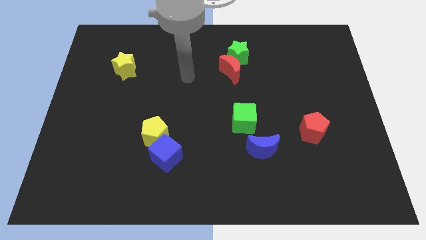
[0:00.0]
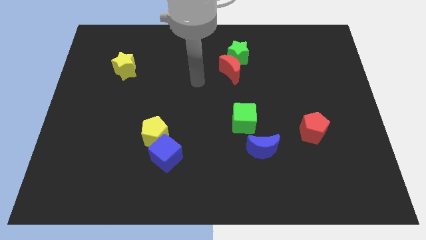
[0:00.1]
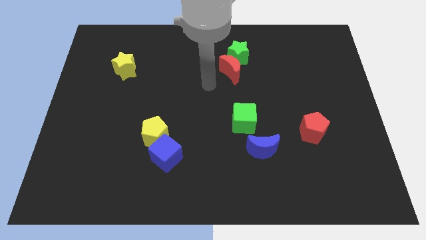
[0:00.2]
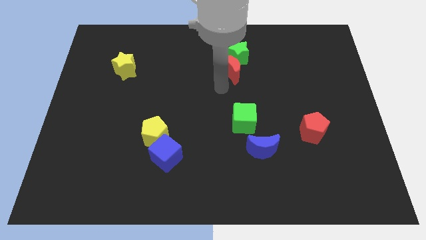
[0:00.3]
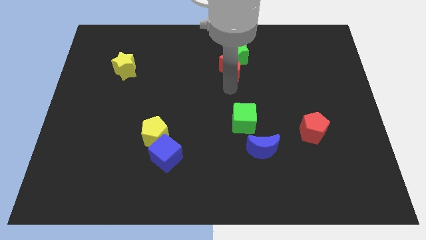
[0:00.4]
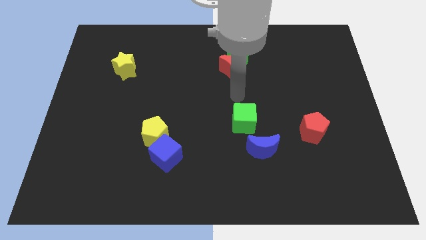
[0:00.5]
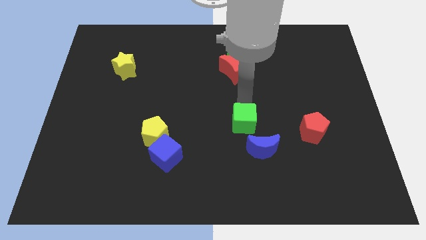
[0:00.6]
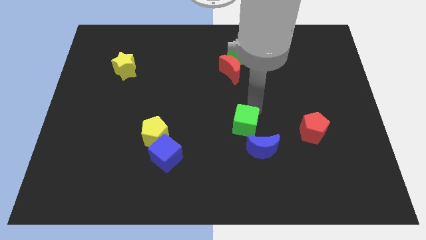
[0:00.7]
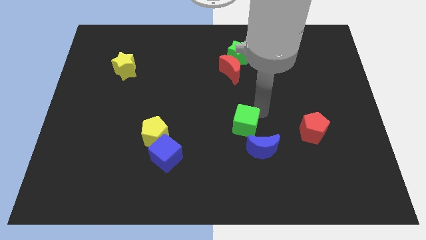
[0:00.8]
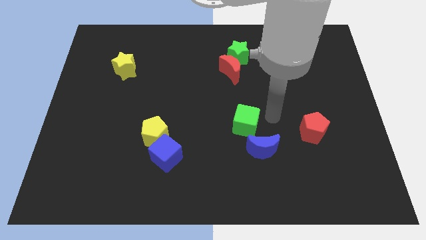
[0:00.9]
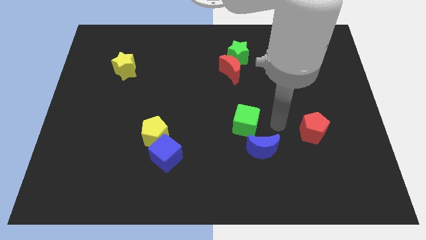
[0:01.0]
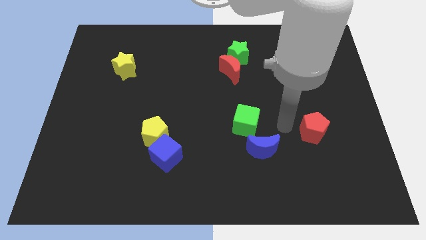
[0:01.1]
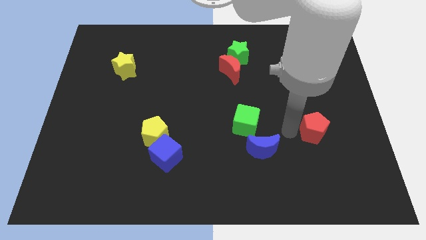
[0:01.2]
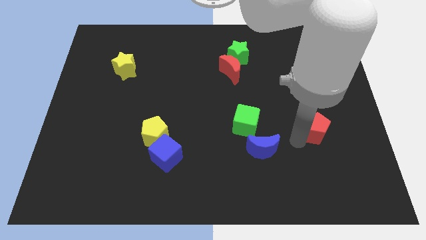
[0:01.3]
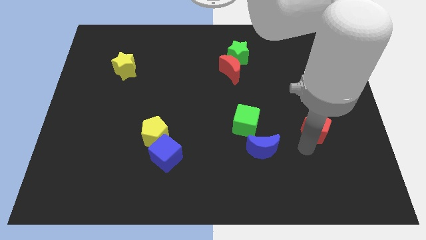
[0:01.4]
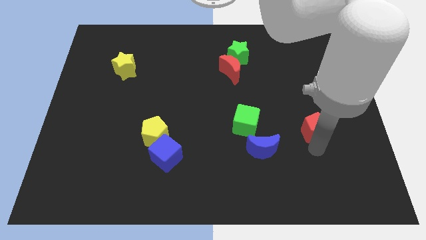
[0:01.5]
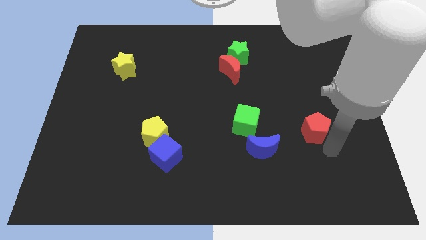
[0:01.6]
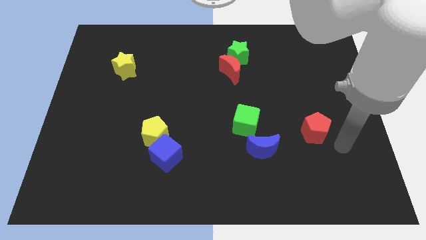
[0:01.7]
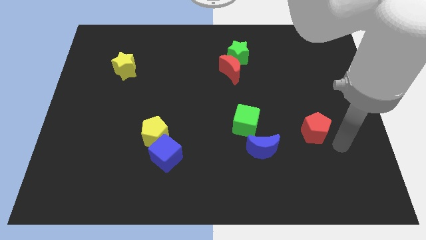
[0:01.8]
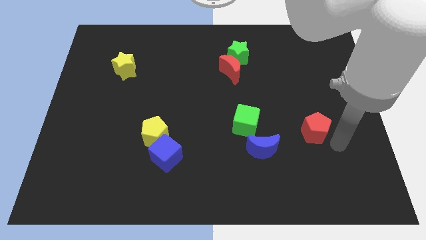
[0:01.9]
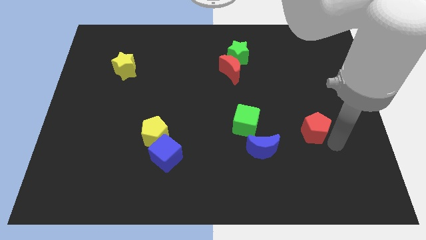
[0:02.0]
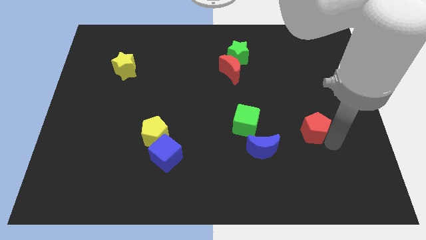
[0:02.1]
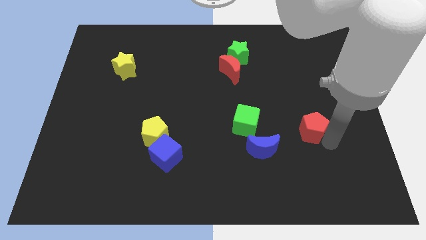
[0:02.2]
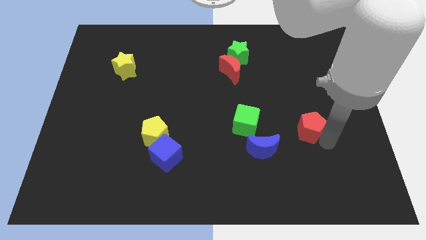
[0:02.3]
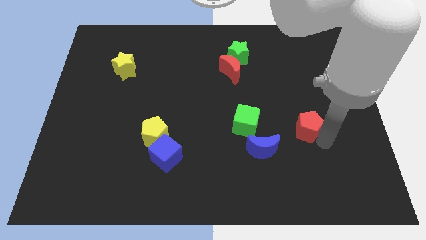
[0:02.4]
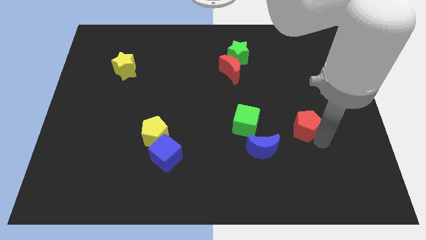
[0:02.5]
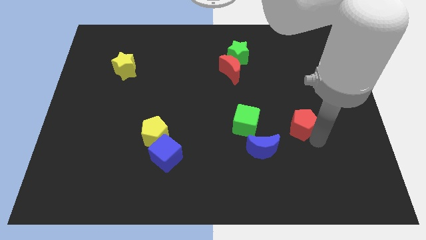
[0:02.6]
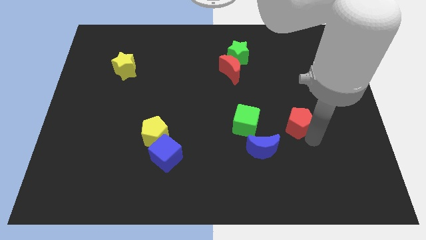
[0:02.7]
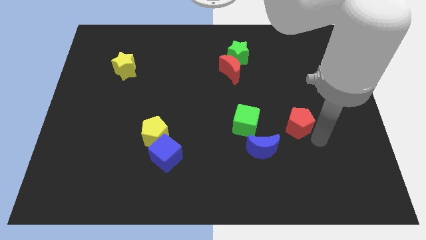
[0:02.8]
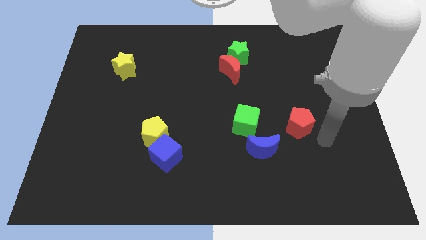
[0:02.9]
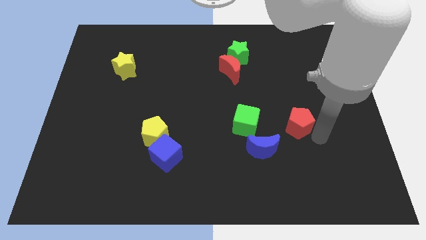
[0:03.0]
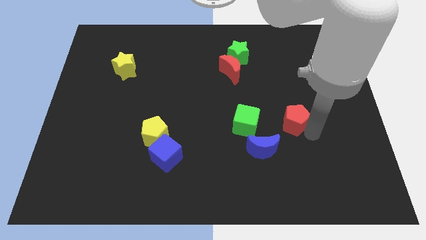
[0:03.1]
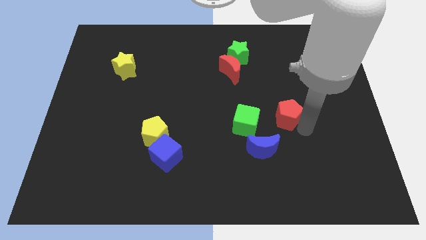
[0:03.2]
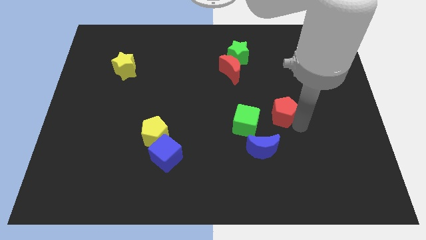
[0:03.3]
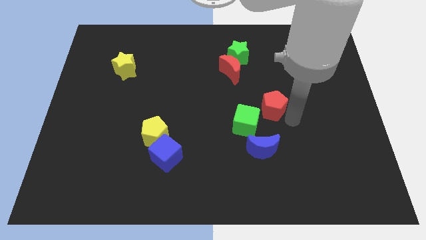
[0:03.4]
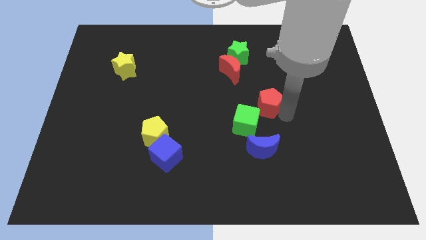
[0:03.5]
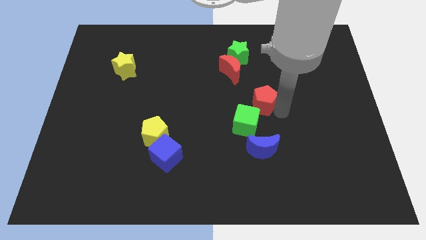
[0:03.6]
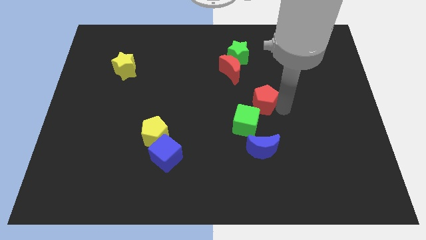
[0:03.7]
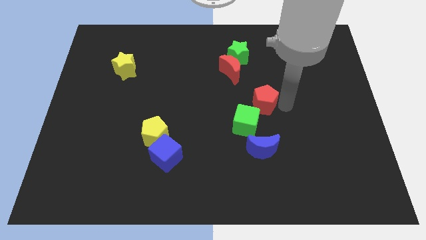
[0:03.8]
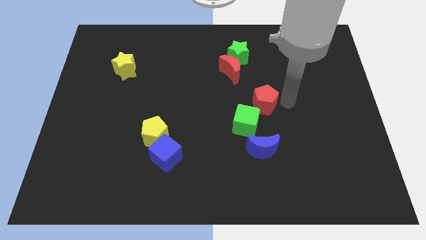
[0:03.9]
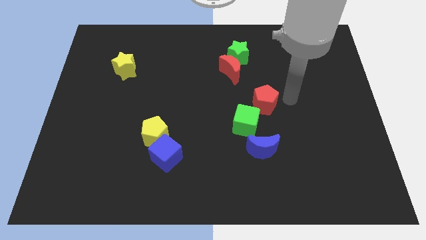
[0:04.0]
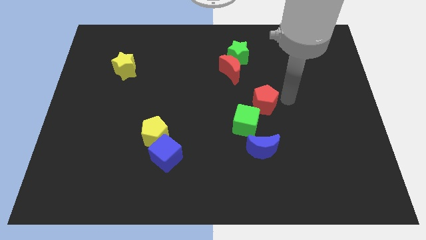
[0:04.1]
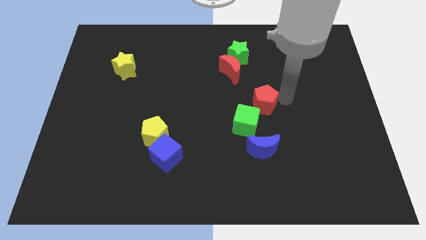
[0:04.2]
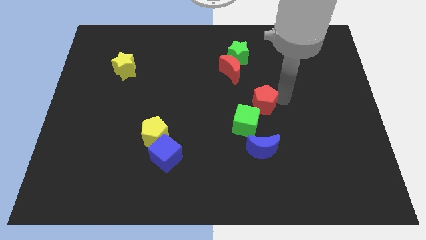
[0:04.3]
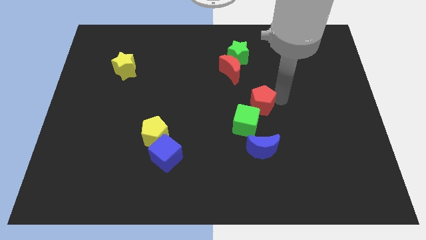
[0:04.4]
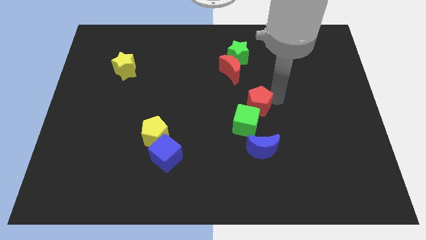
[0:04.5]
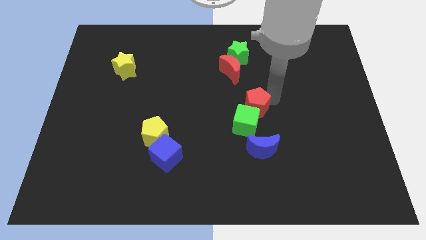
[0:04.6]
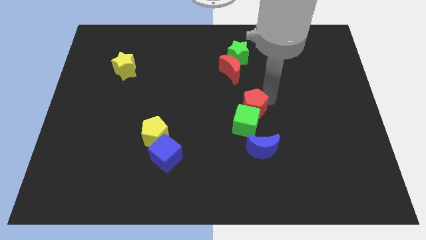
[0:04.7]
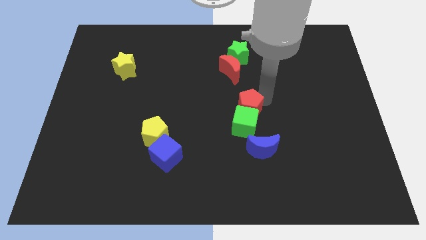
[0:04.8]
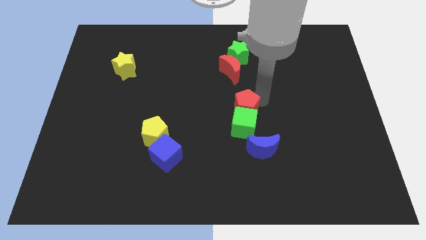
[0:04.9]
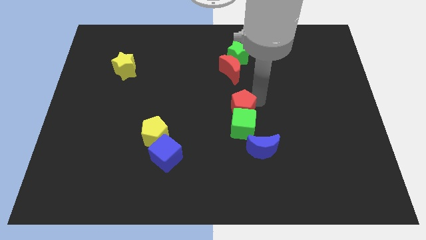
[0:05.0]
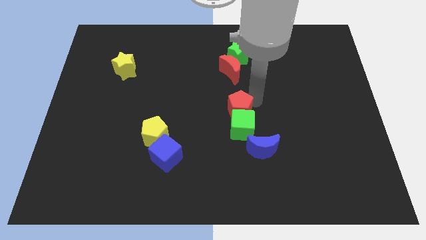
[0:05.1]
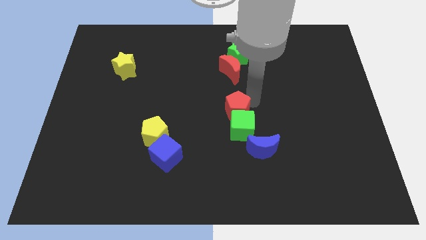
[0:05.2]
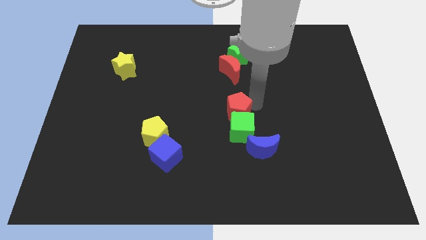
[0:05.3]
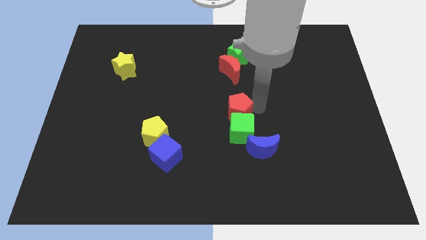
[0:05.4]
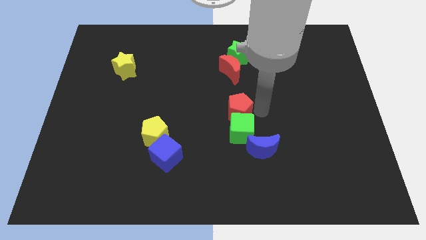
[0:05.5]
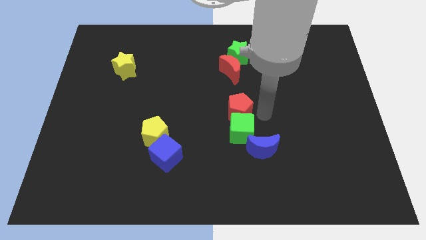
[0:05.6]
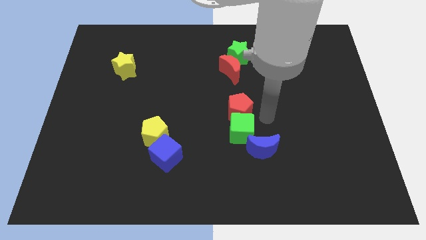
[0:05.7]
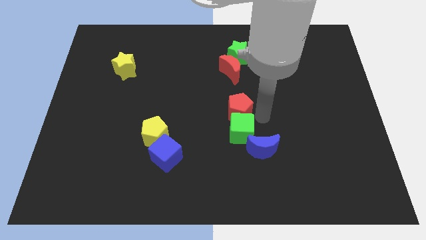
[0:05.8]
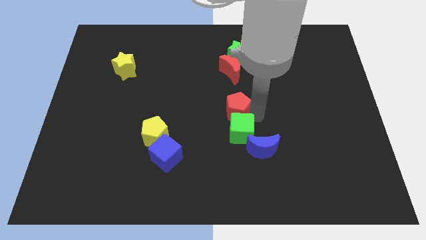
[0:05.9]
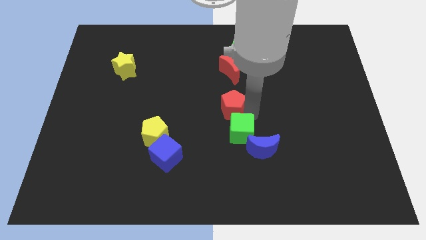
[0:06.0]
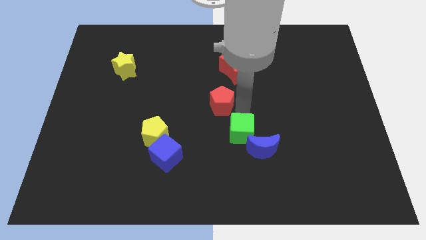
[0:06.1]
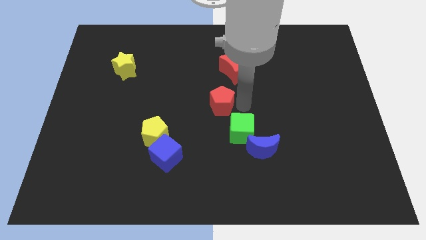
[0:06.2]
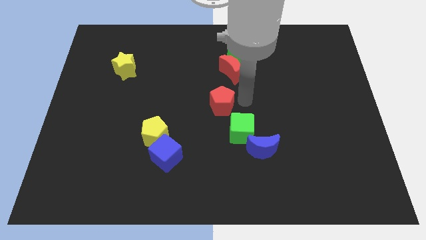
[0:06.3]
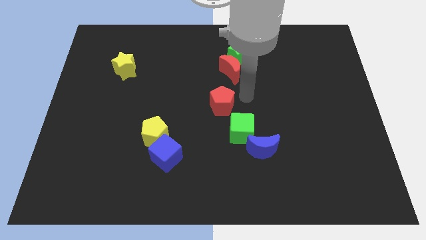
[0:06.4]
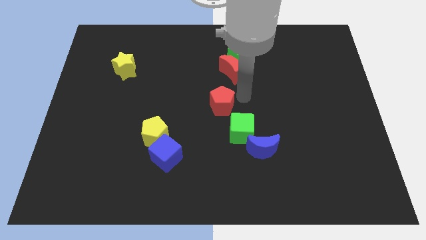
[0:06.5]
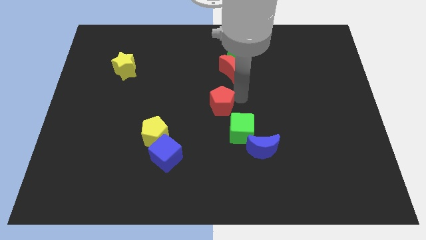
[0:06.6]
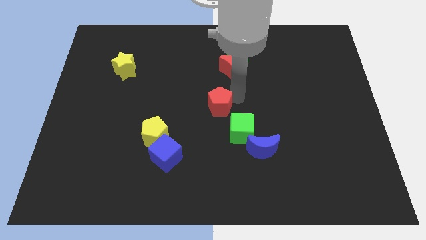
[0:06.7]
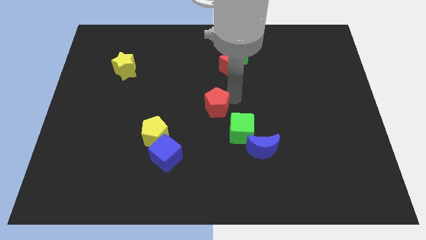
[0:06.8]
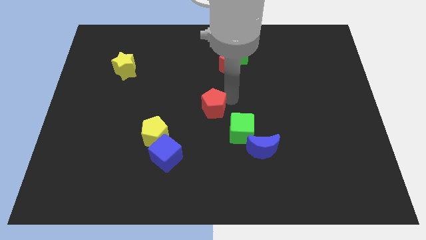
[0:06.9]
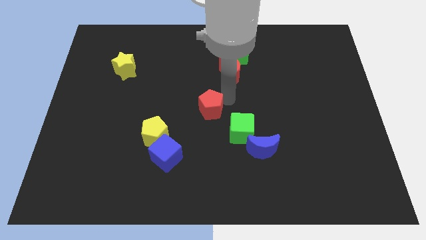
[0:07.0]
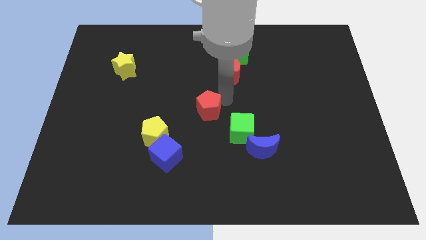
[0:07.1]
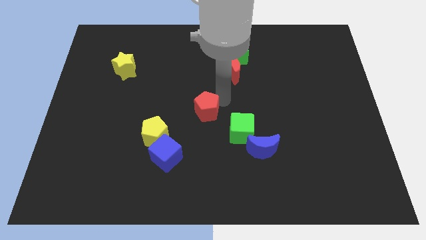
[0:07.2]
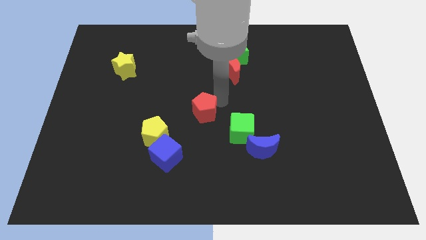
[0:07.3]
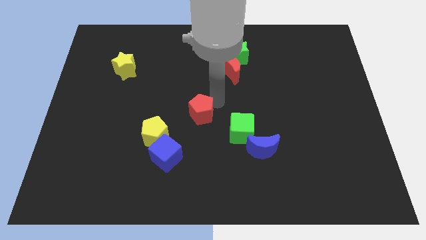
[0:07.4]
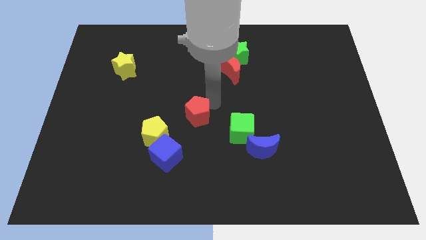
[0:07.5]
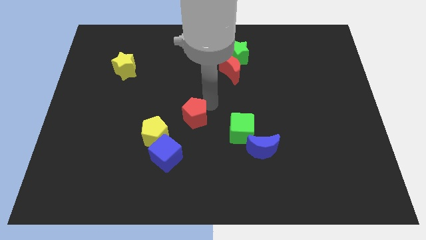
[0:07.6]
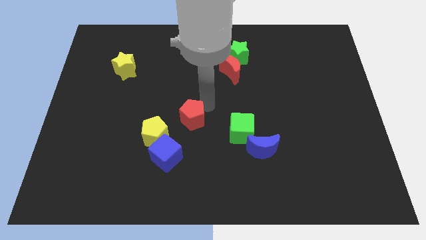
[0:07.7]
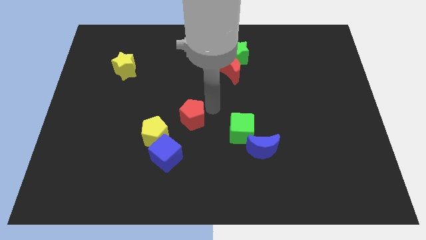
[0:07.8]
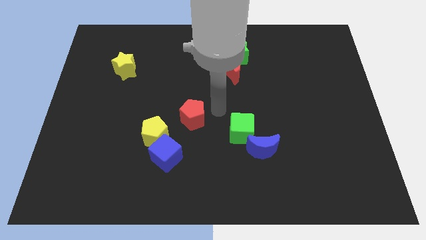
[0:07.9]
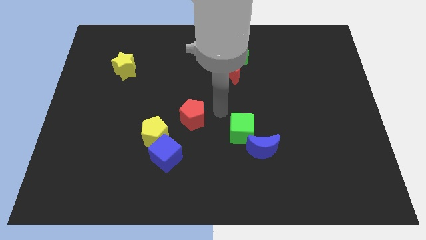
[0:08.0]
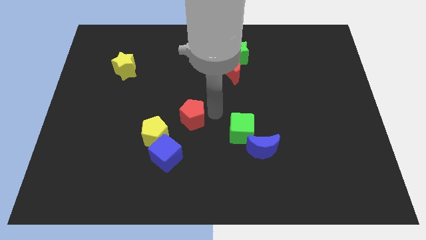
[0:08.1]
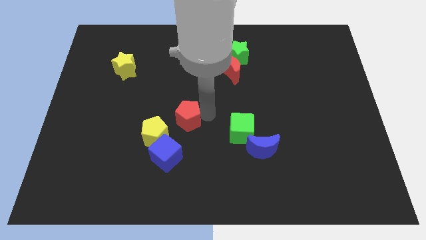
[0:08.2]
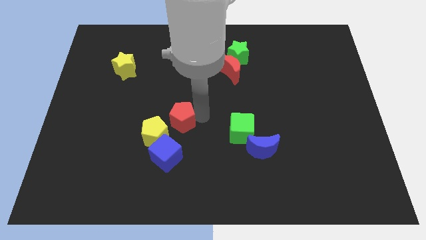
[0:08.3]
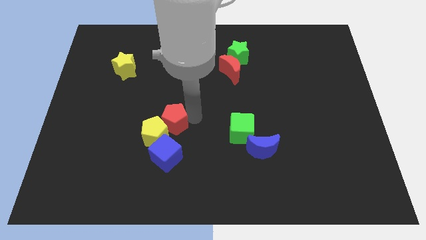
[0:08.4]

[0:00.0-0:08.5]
slide the red pentagon close to the yellow pentagon
